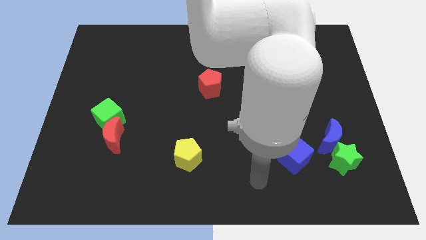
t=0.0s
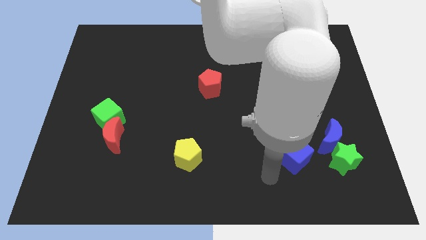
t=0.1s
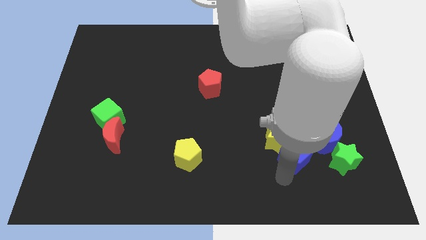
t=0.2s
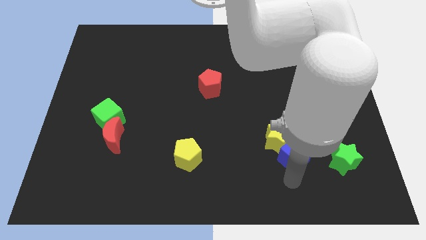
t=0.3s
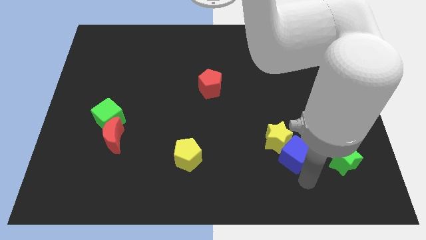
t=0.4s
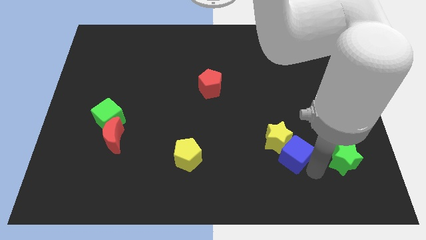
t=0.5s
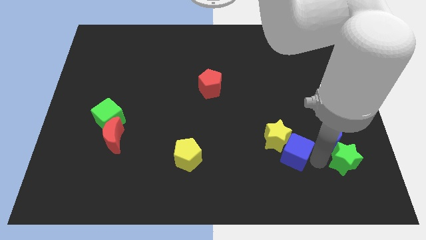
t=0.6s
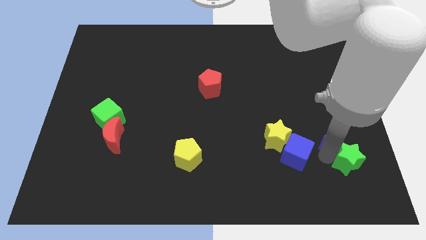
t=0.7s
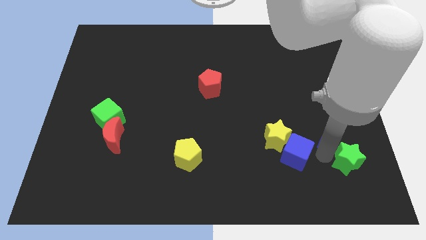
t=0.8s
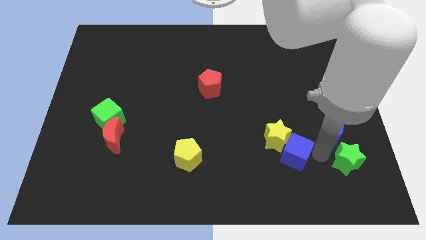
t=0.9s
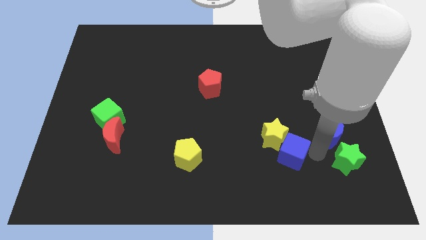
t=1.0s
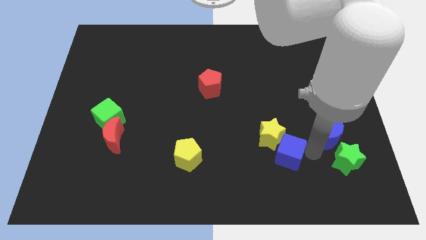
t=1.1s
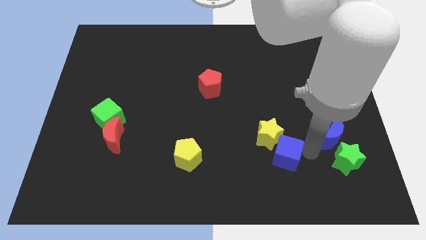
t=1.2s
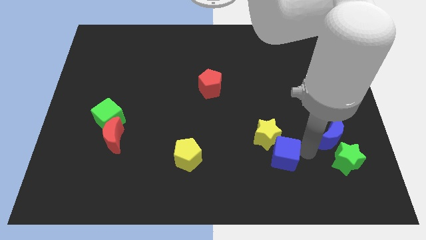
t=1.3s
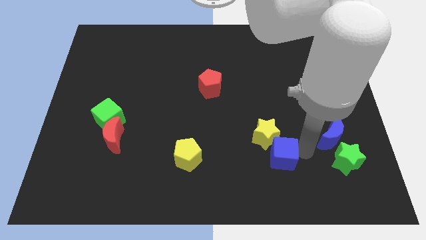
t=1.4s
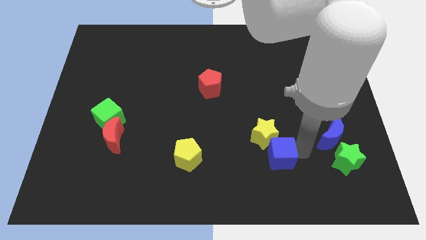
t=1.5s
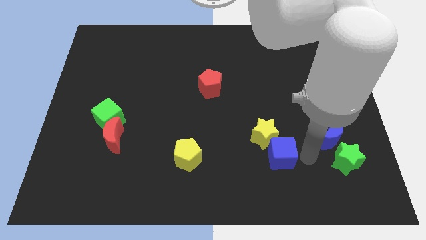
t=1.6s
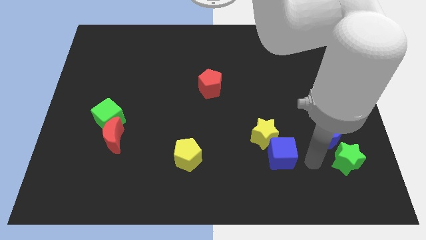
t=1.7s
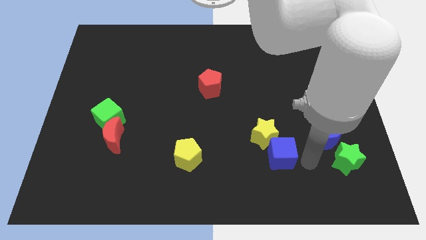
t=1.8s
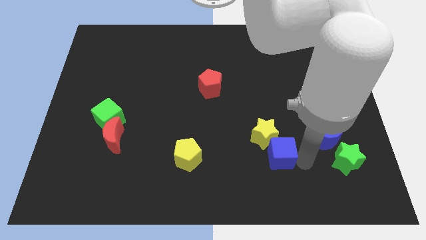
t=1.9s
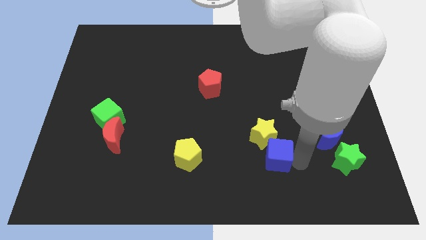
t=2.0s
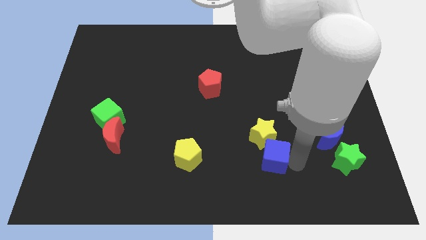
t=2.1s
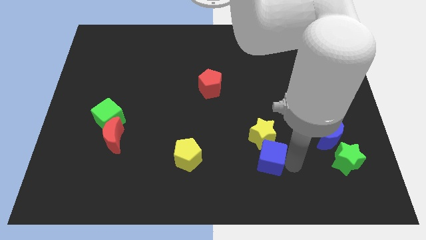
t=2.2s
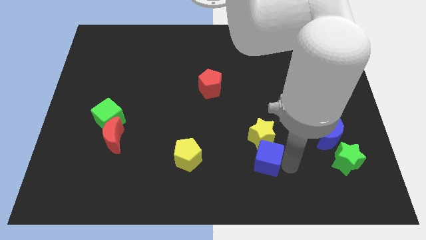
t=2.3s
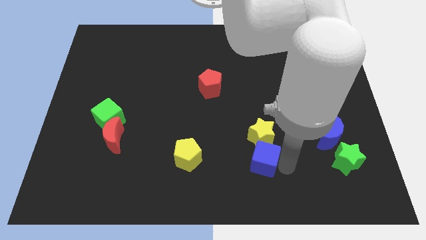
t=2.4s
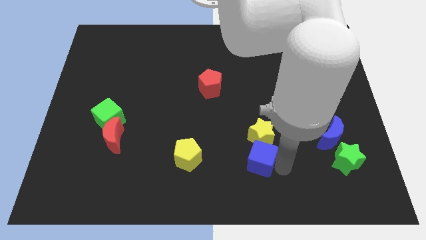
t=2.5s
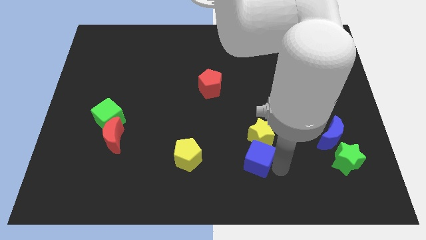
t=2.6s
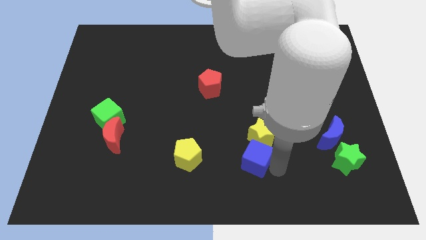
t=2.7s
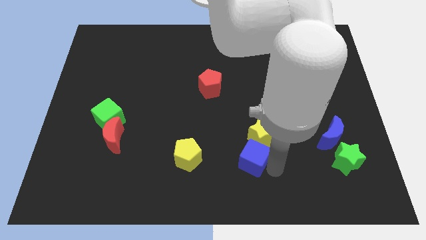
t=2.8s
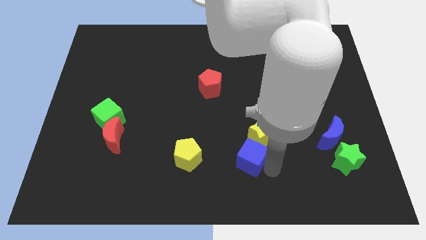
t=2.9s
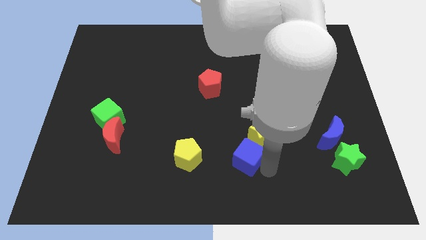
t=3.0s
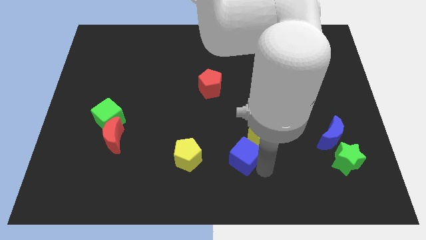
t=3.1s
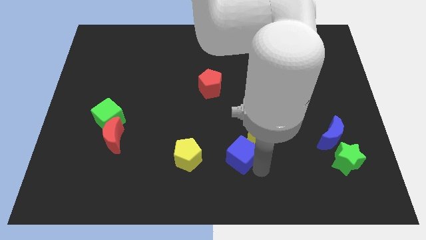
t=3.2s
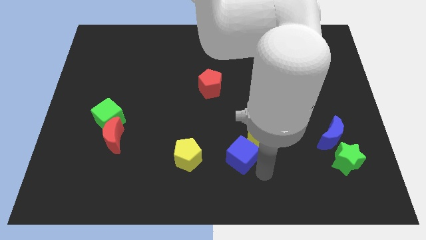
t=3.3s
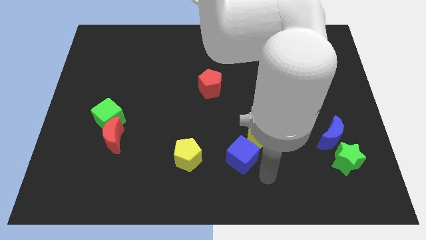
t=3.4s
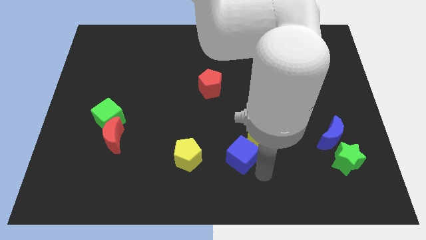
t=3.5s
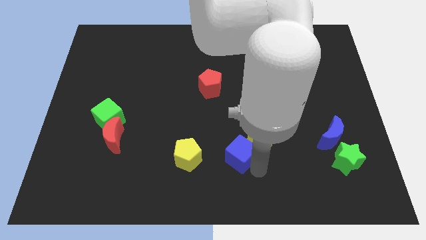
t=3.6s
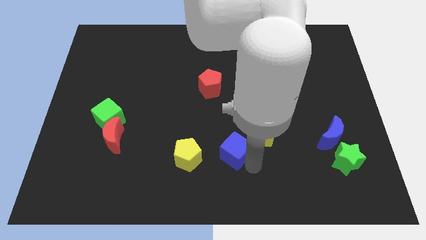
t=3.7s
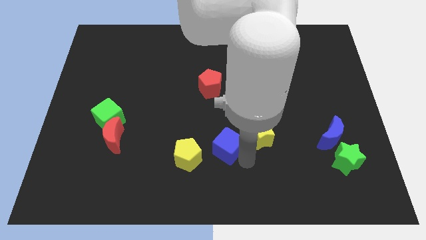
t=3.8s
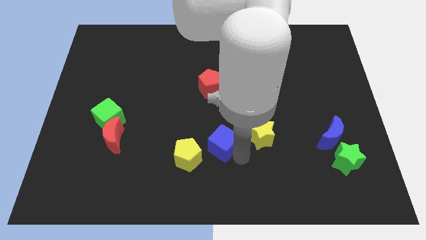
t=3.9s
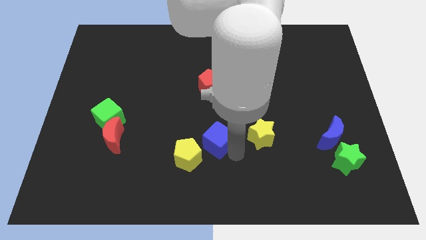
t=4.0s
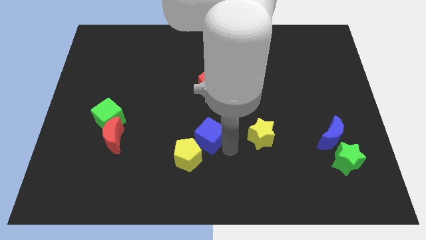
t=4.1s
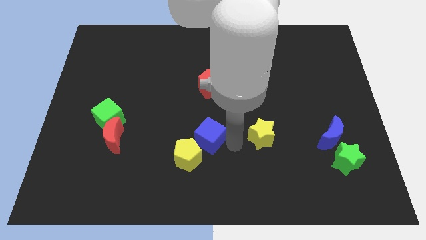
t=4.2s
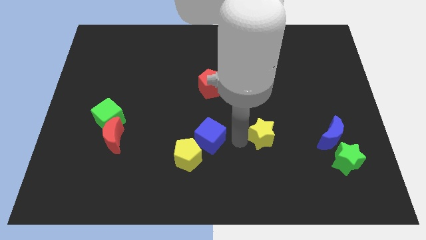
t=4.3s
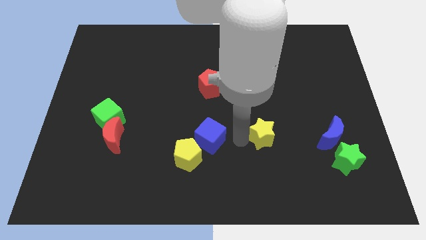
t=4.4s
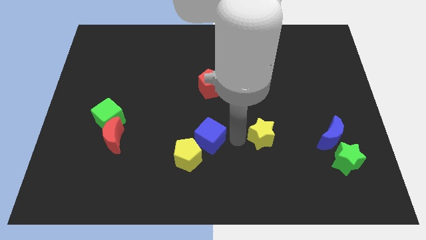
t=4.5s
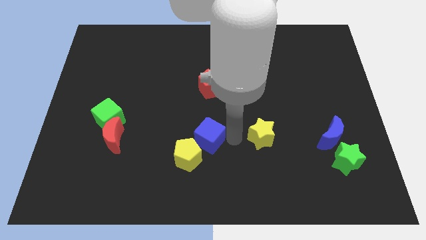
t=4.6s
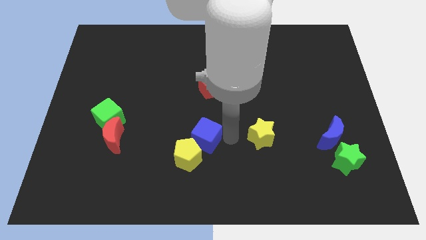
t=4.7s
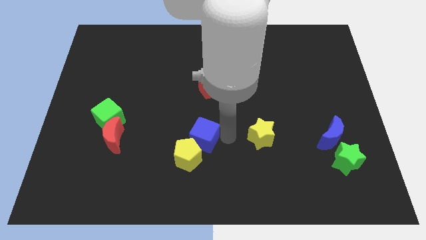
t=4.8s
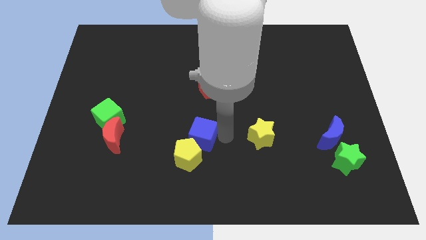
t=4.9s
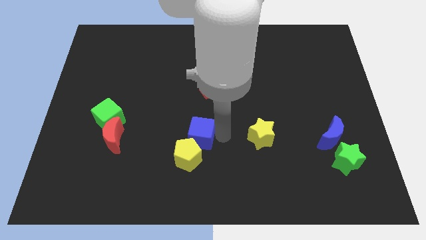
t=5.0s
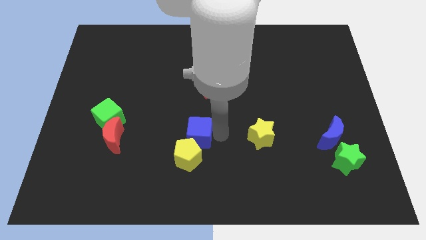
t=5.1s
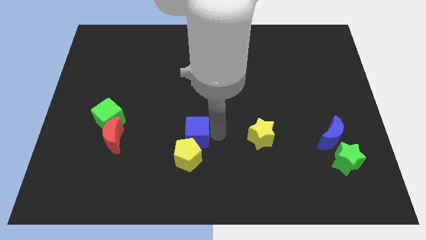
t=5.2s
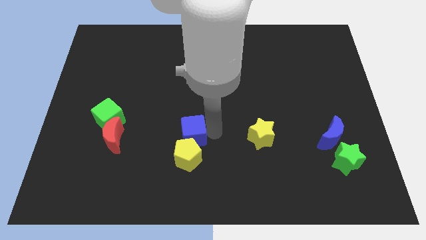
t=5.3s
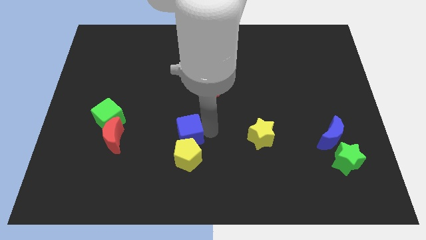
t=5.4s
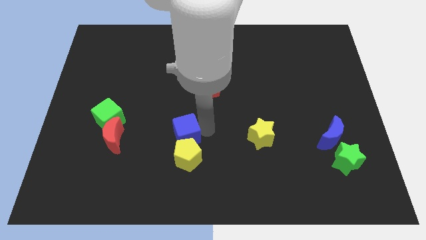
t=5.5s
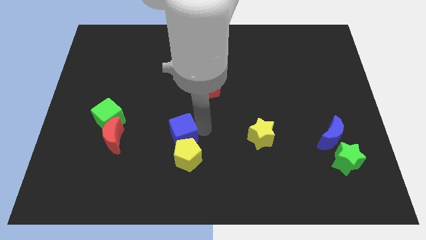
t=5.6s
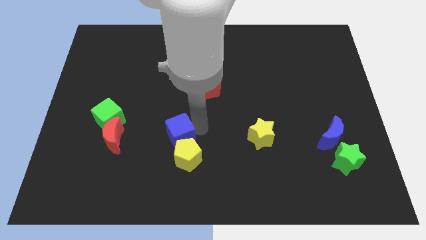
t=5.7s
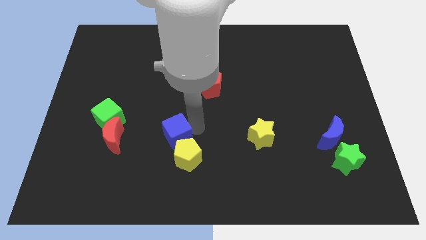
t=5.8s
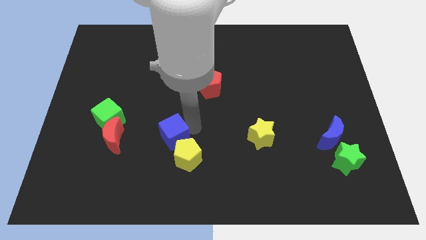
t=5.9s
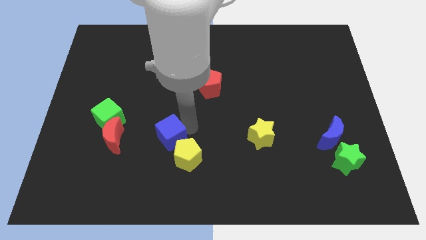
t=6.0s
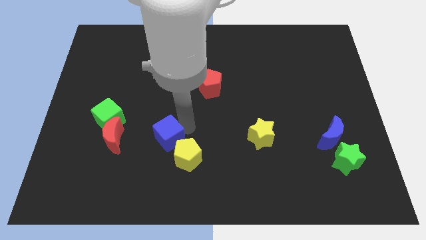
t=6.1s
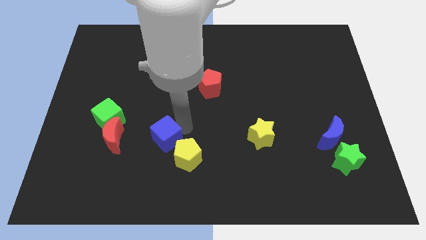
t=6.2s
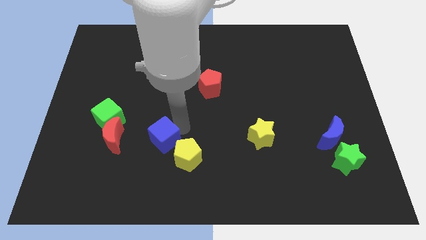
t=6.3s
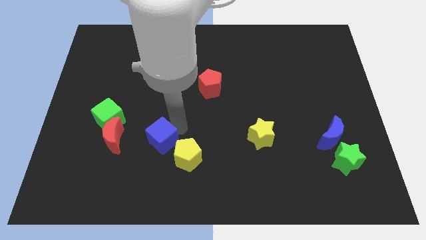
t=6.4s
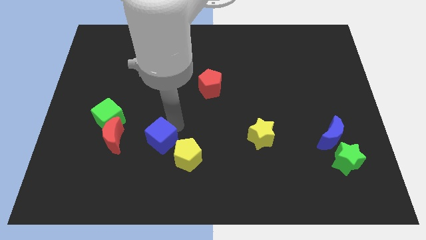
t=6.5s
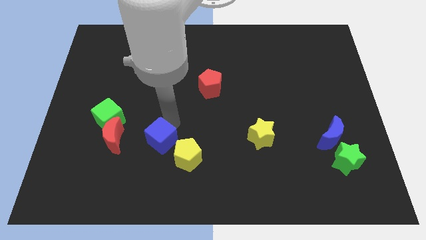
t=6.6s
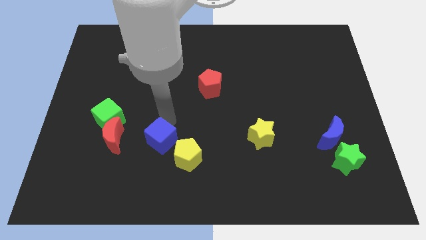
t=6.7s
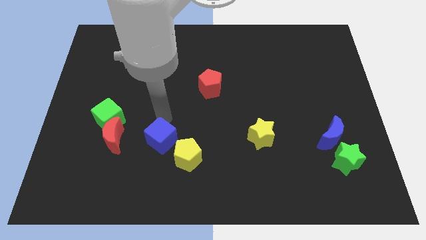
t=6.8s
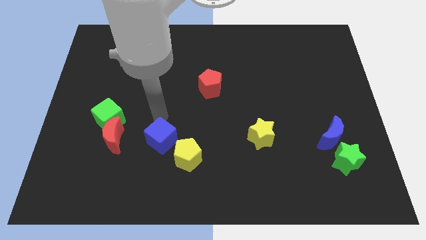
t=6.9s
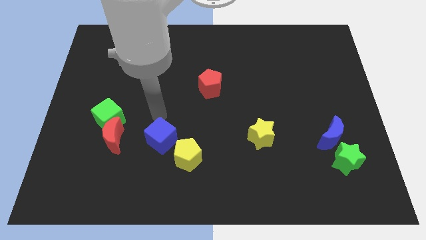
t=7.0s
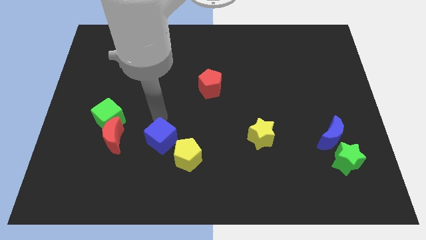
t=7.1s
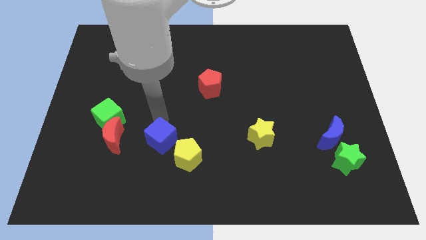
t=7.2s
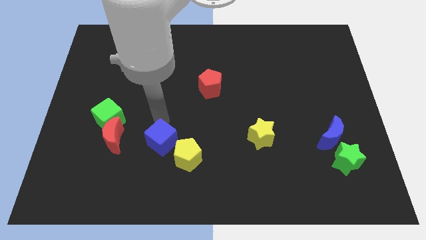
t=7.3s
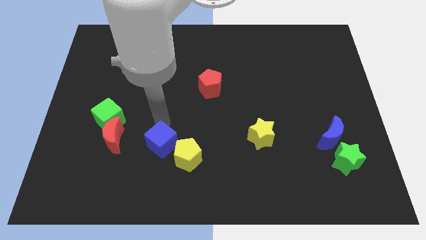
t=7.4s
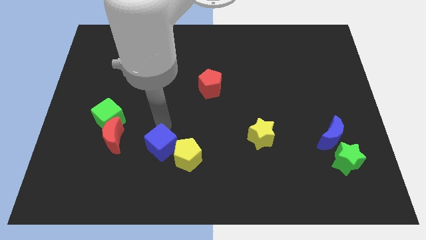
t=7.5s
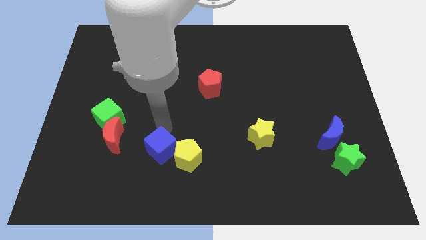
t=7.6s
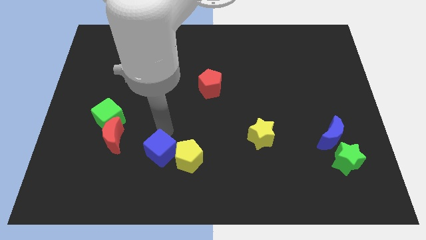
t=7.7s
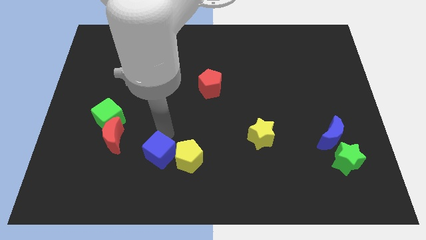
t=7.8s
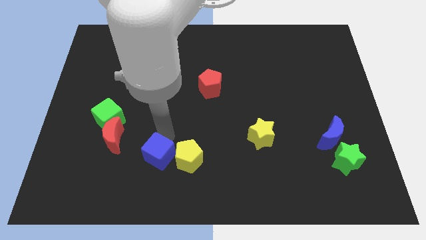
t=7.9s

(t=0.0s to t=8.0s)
put the blue cube diagonally down and to the right of the red moon
